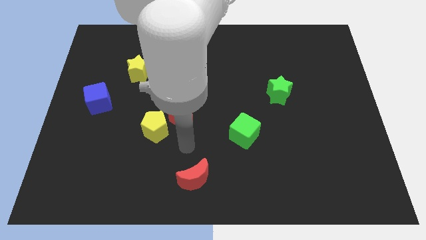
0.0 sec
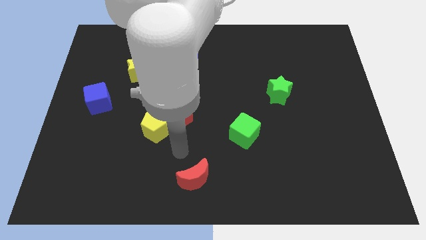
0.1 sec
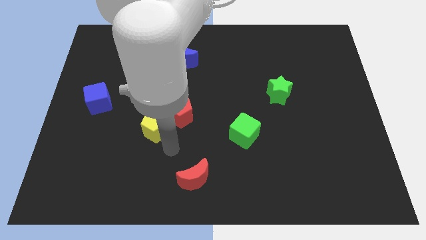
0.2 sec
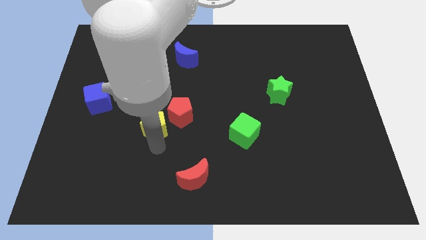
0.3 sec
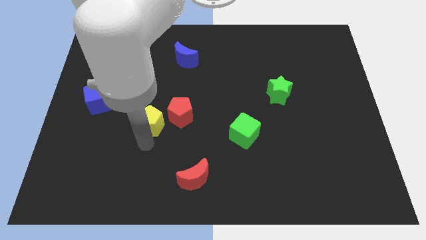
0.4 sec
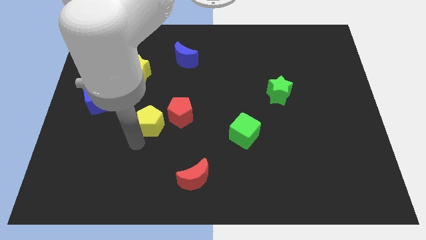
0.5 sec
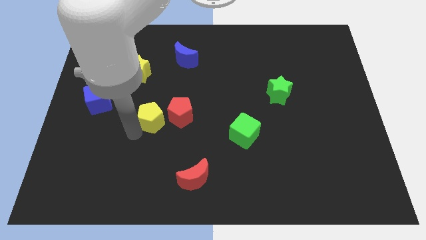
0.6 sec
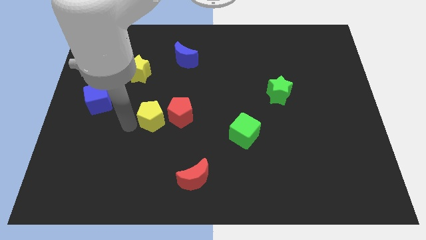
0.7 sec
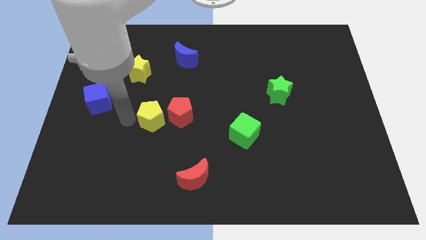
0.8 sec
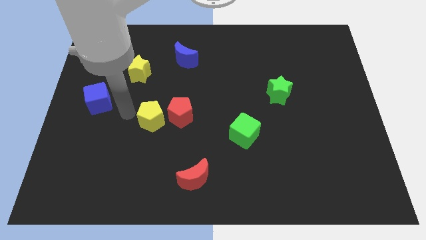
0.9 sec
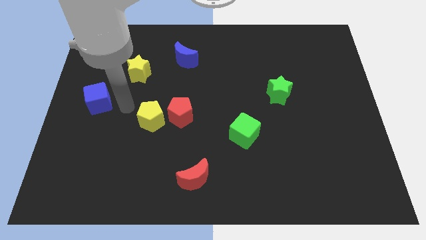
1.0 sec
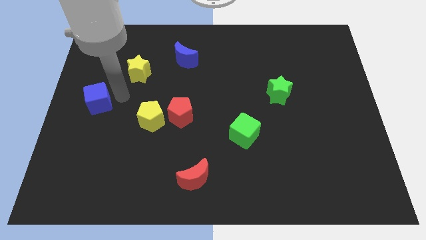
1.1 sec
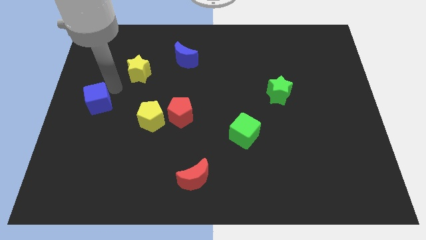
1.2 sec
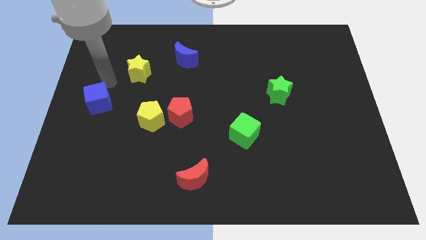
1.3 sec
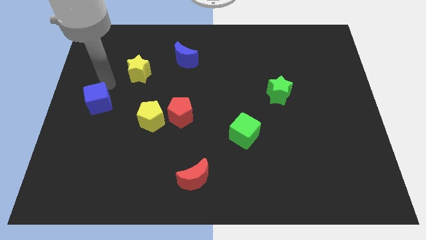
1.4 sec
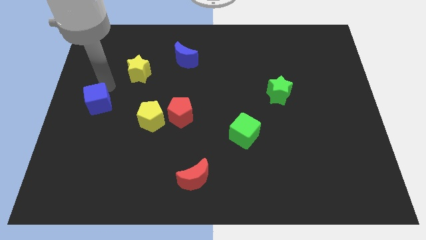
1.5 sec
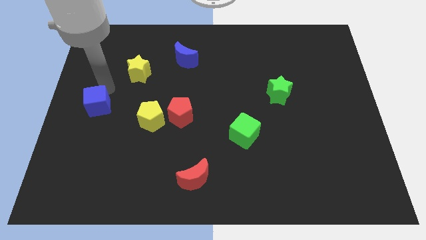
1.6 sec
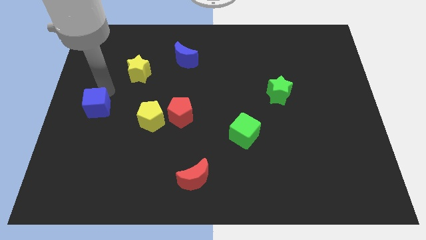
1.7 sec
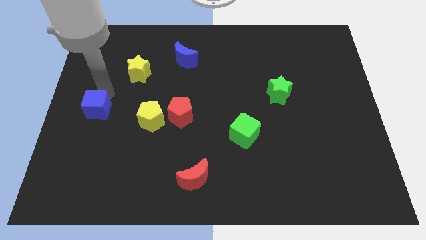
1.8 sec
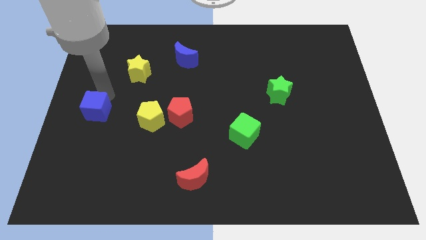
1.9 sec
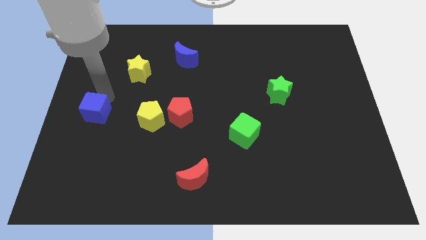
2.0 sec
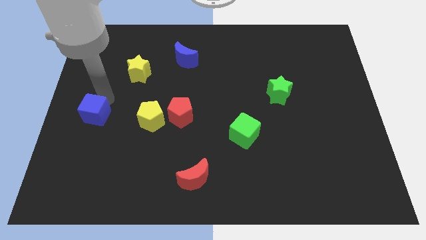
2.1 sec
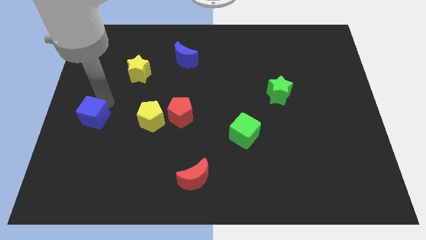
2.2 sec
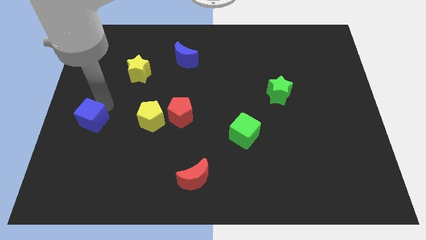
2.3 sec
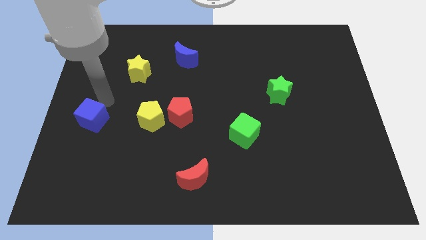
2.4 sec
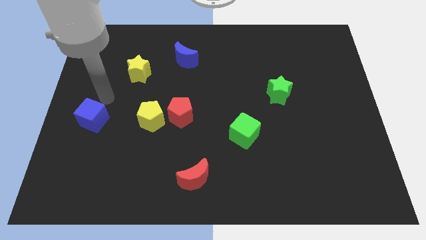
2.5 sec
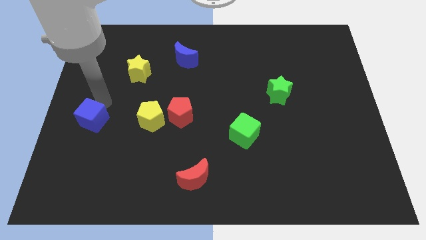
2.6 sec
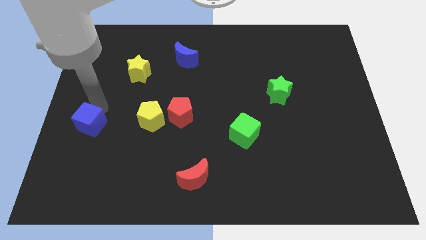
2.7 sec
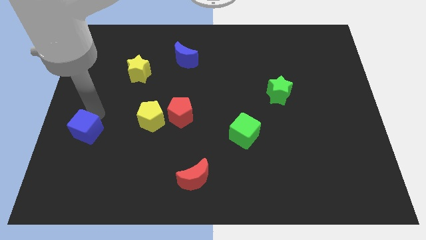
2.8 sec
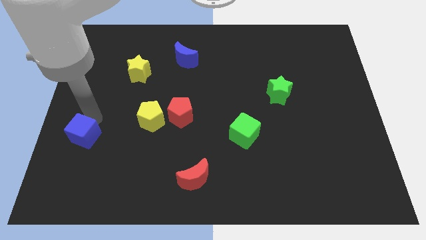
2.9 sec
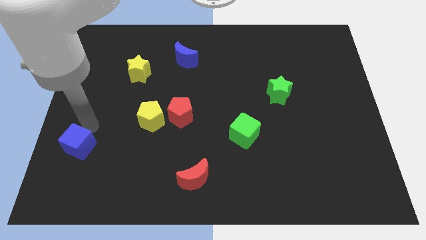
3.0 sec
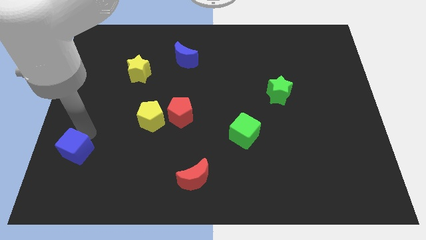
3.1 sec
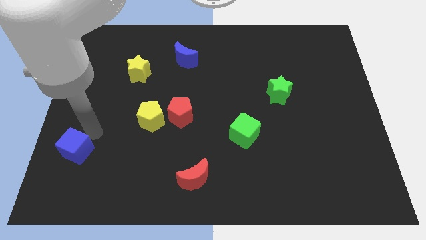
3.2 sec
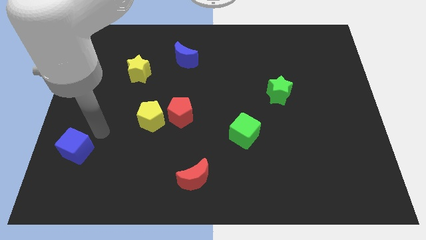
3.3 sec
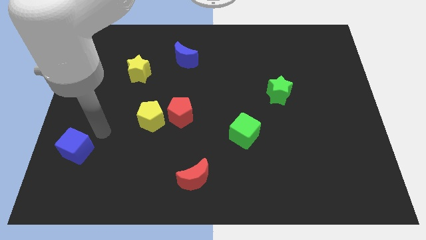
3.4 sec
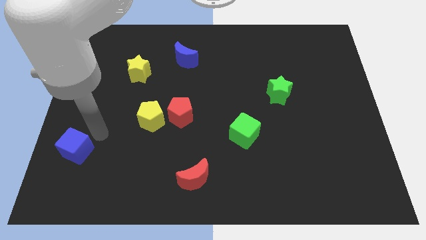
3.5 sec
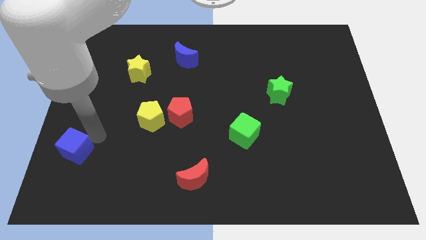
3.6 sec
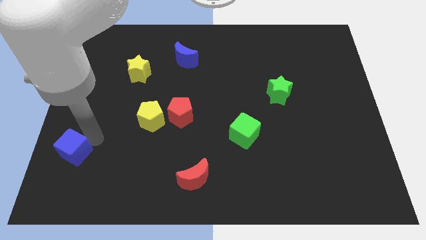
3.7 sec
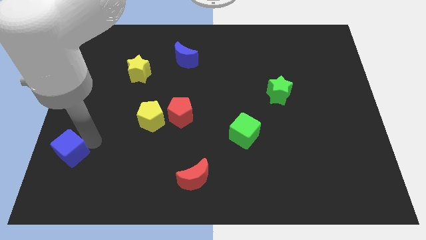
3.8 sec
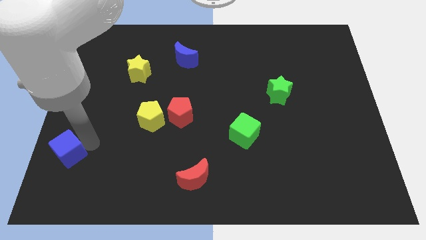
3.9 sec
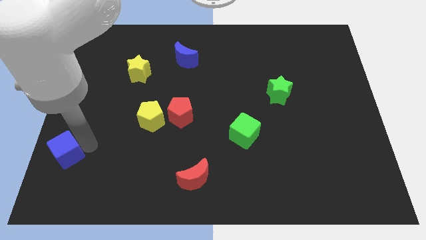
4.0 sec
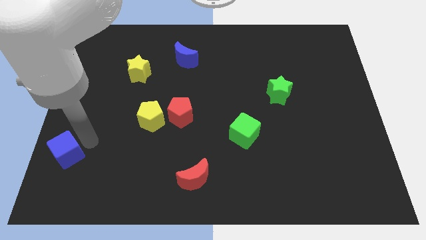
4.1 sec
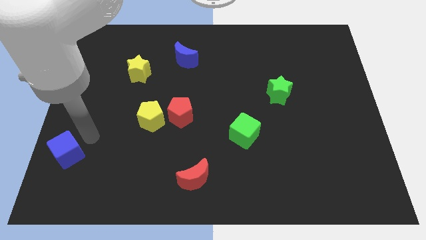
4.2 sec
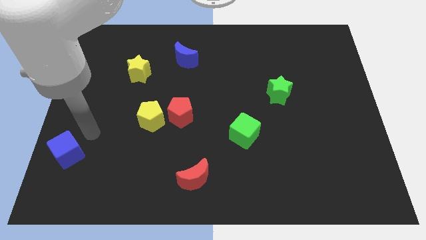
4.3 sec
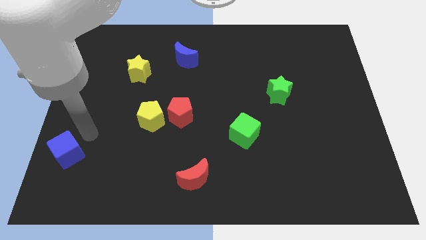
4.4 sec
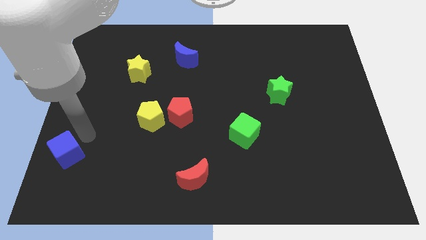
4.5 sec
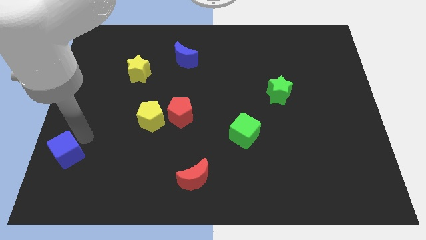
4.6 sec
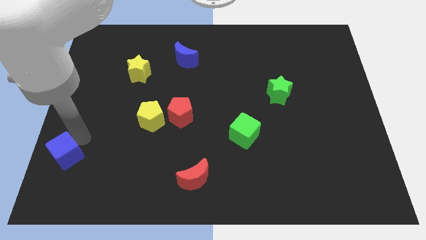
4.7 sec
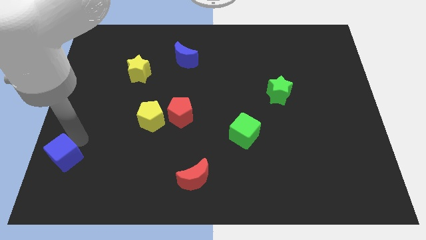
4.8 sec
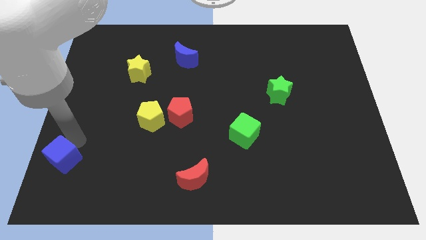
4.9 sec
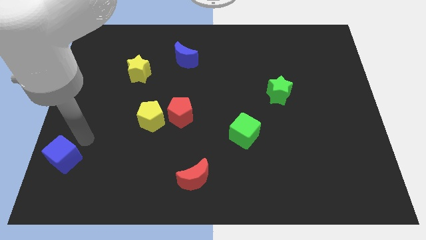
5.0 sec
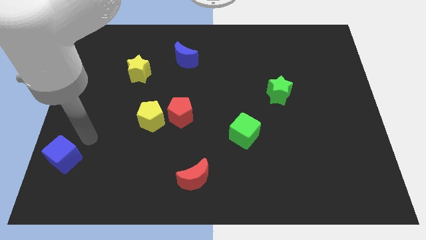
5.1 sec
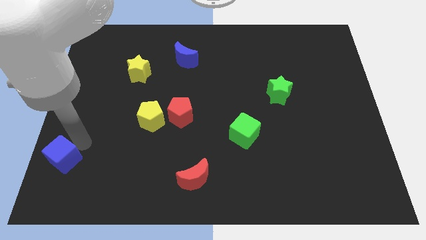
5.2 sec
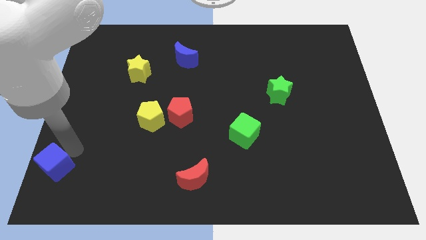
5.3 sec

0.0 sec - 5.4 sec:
slide the blue cube to the bottom left

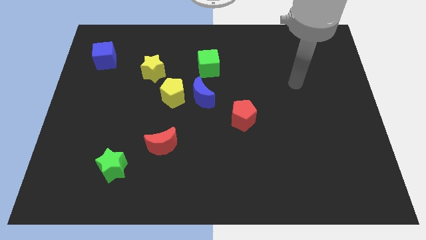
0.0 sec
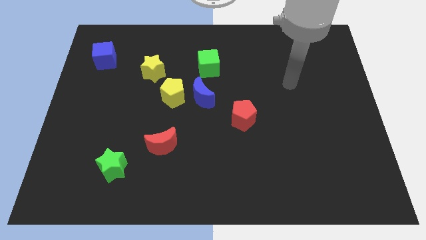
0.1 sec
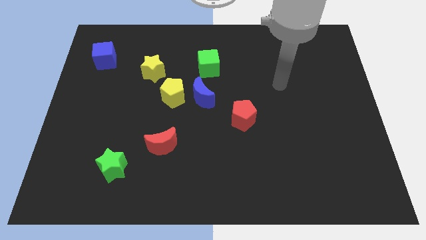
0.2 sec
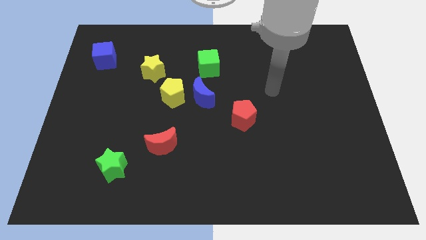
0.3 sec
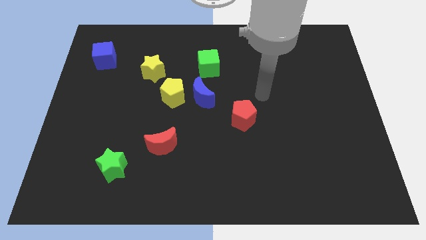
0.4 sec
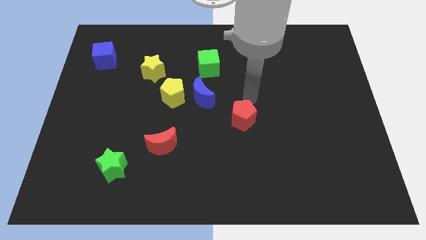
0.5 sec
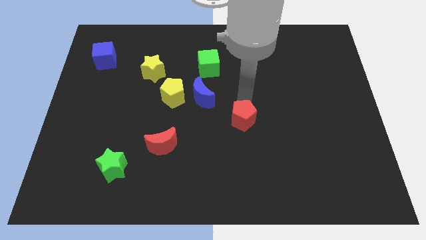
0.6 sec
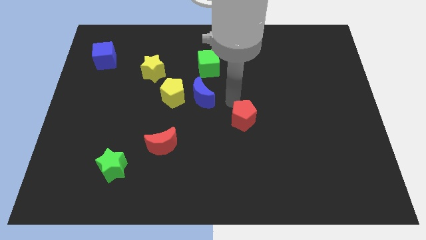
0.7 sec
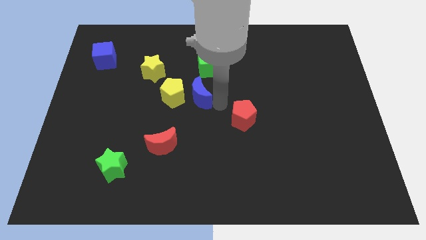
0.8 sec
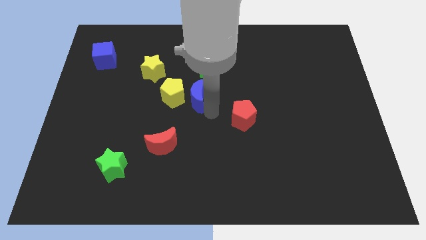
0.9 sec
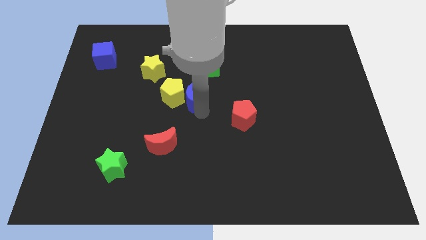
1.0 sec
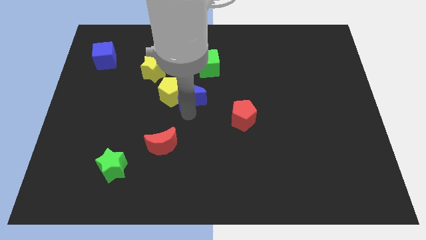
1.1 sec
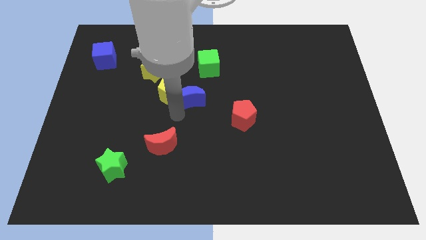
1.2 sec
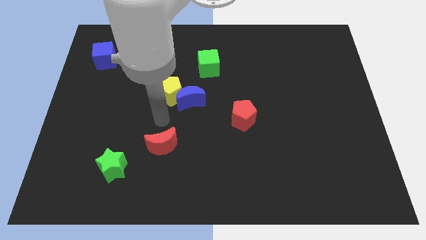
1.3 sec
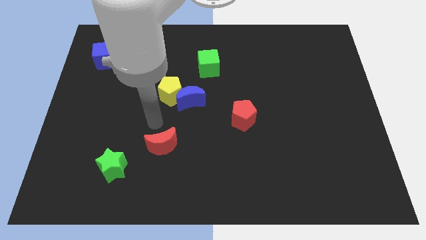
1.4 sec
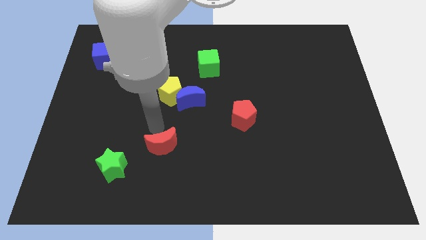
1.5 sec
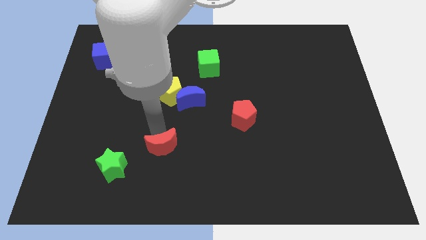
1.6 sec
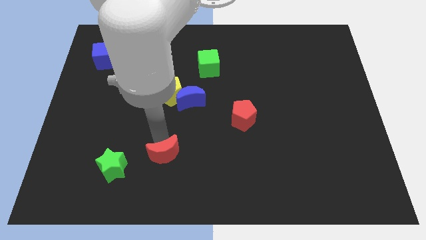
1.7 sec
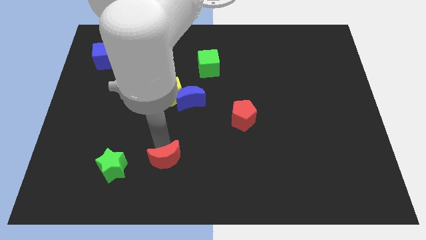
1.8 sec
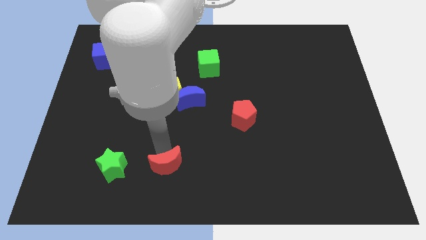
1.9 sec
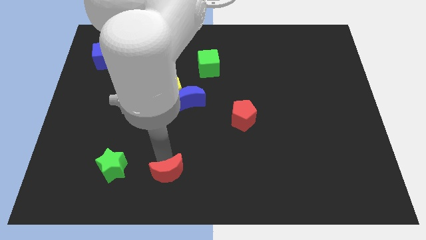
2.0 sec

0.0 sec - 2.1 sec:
move the red moon to the bottom side
